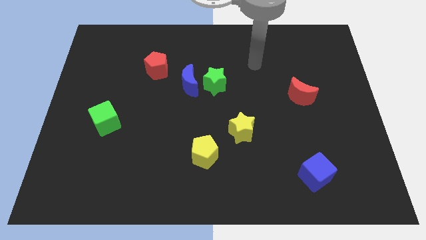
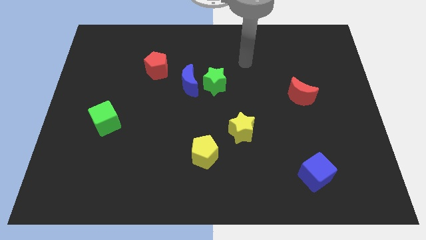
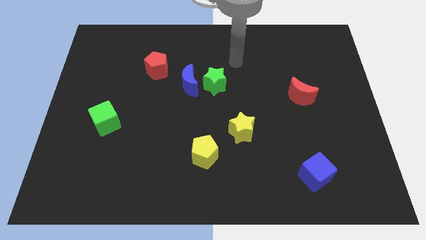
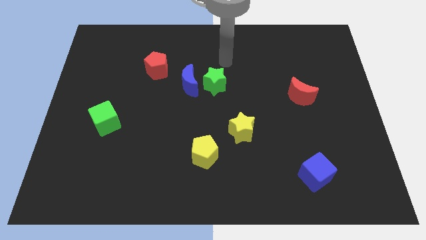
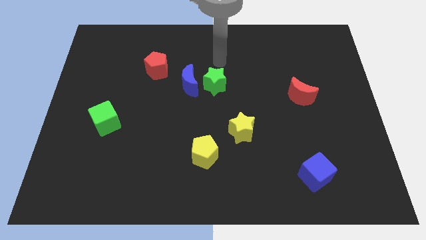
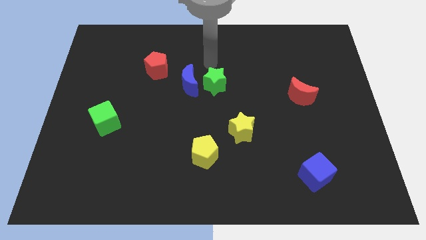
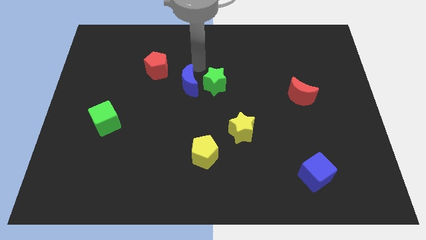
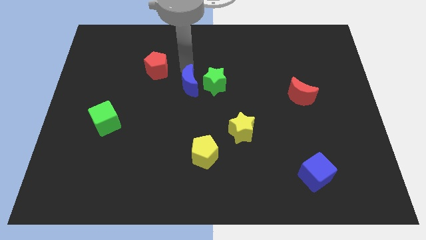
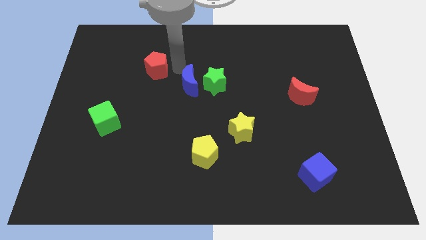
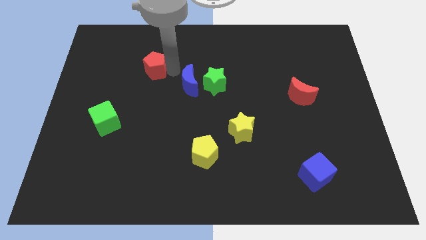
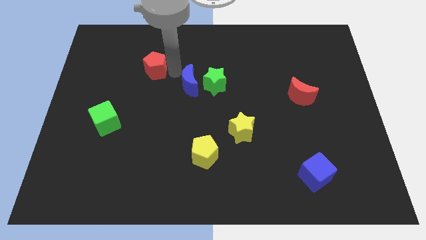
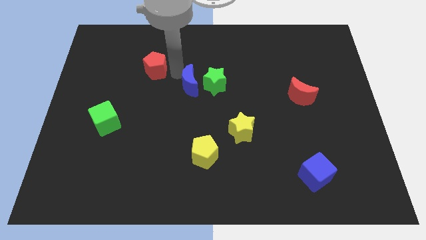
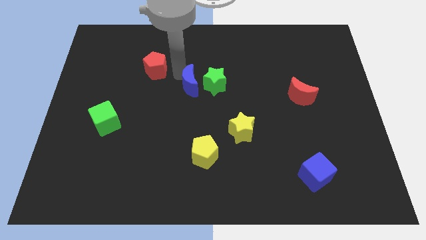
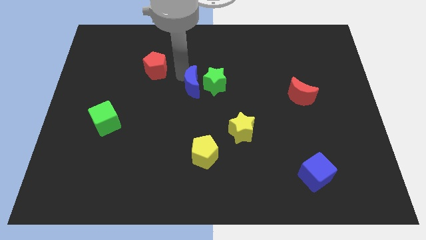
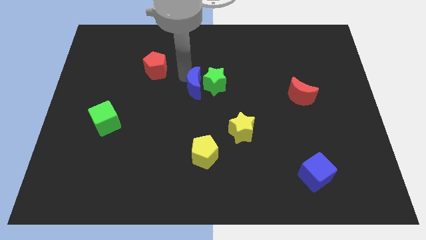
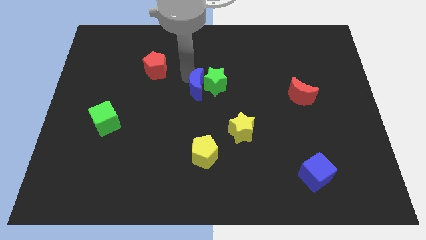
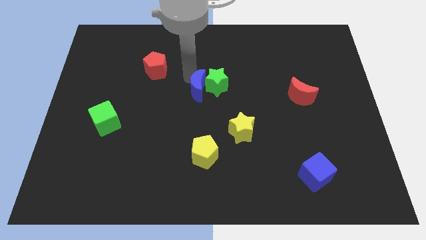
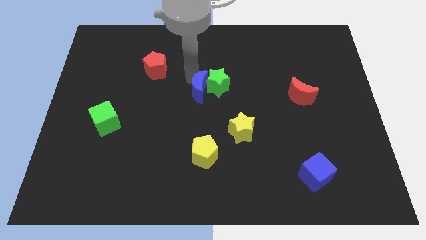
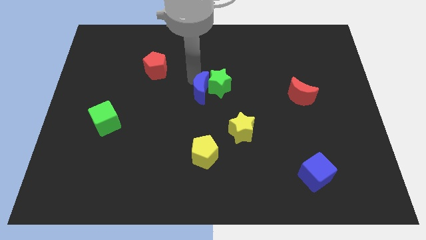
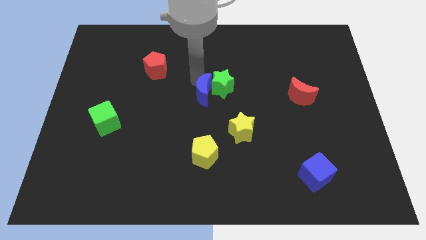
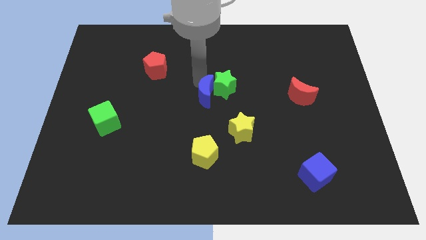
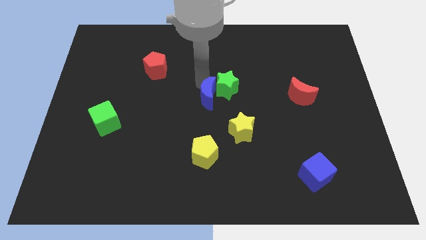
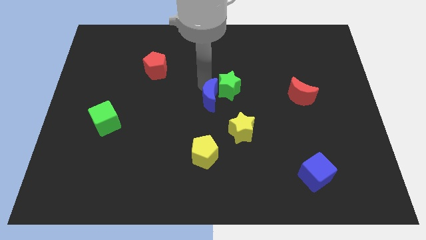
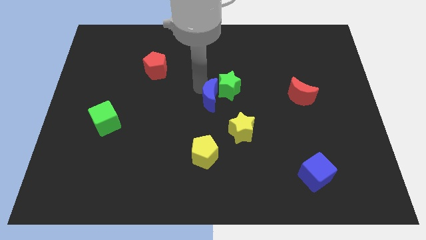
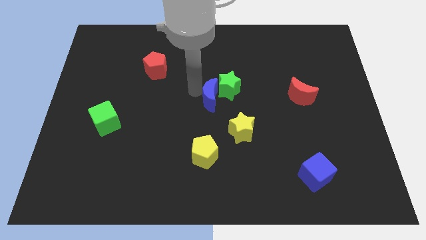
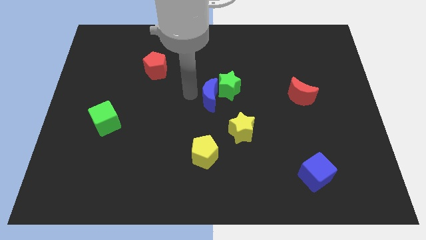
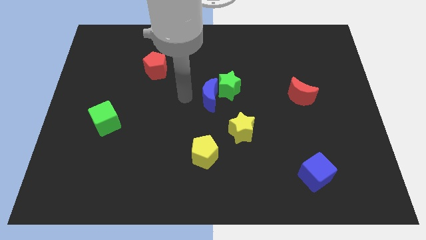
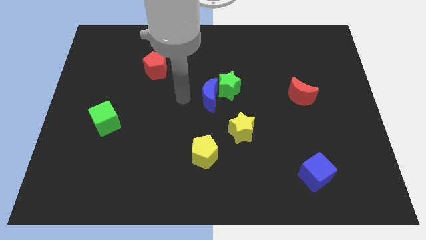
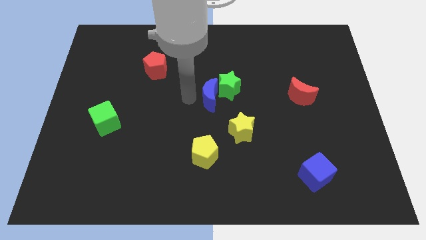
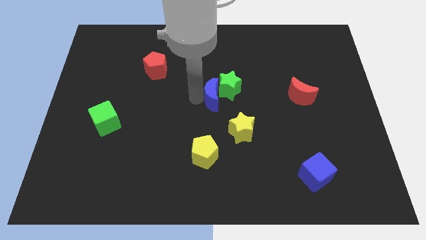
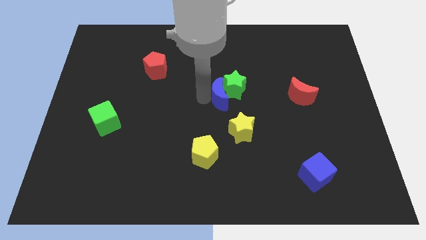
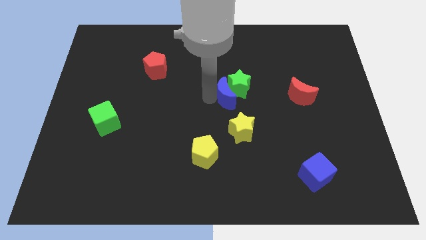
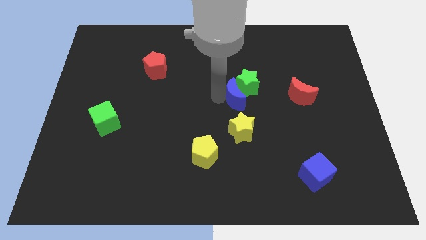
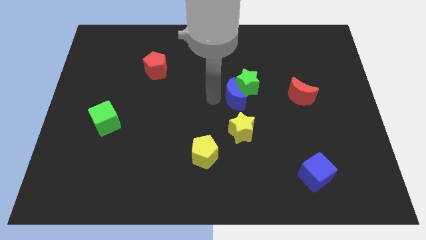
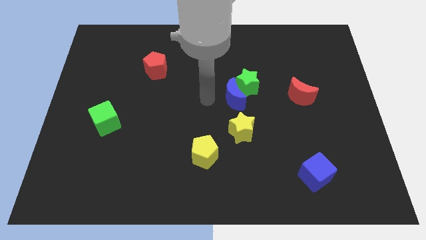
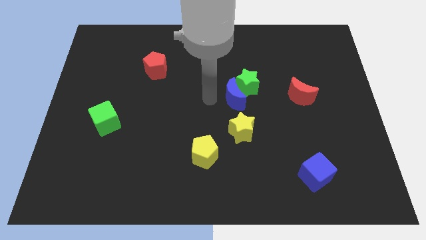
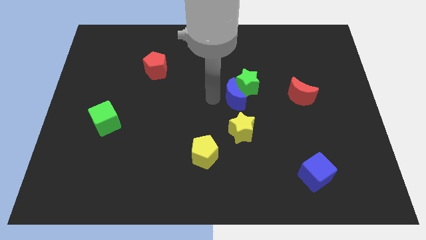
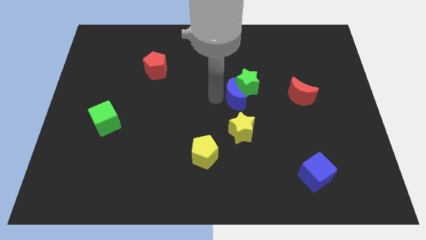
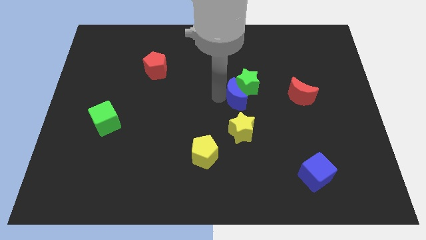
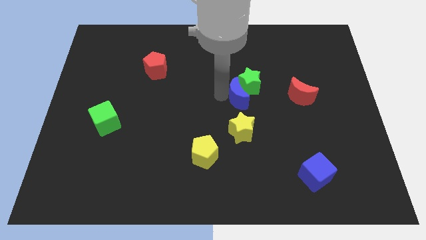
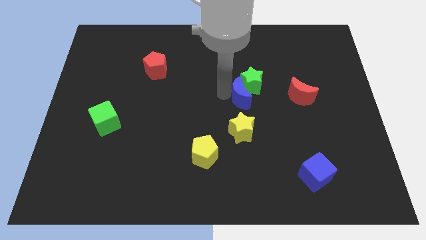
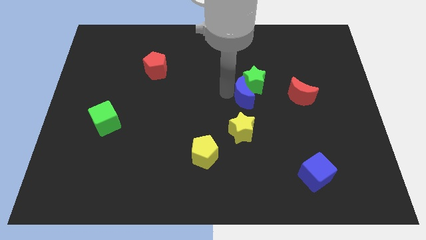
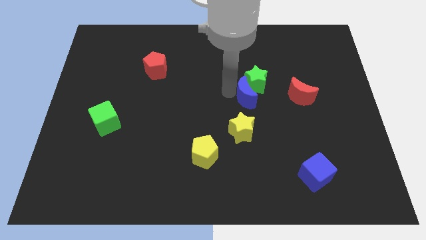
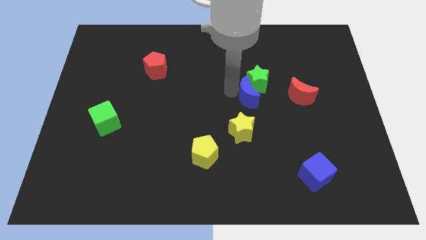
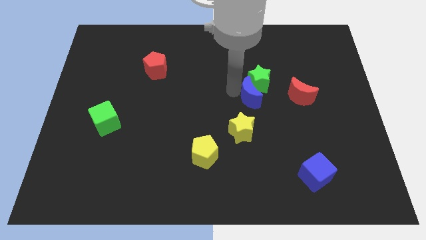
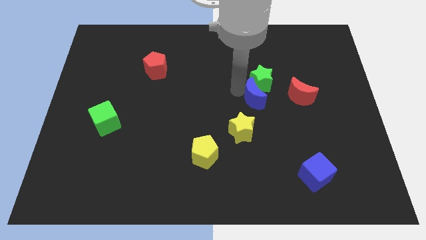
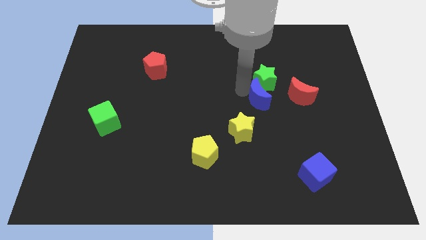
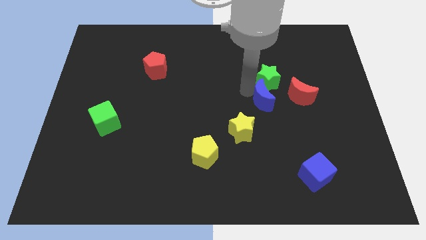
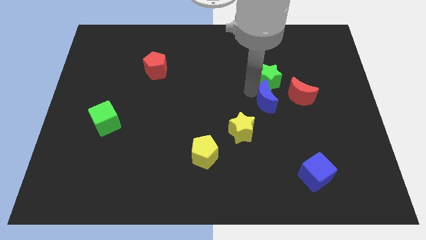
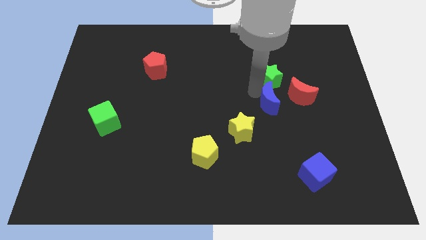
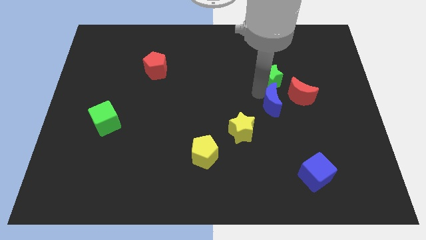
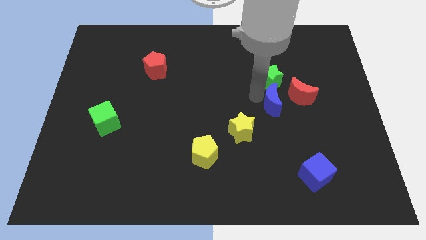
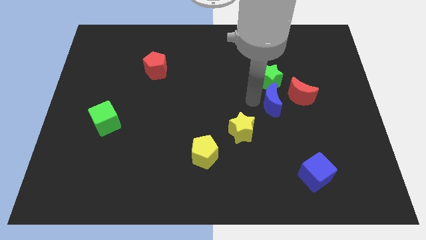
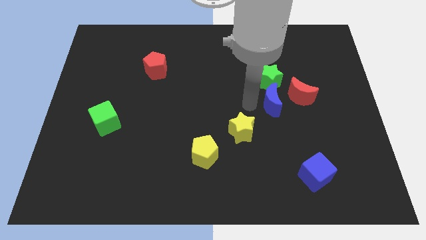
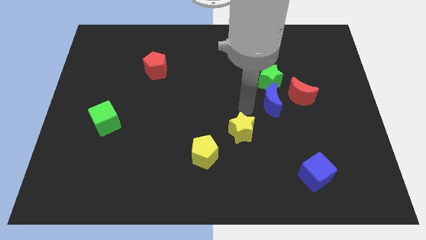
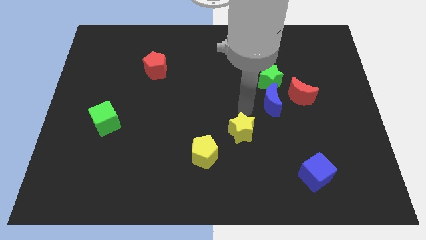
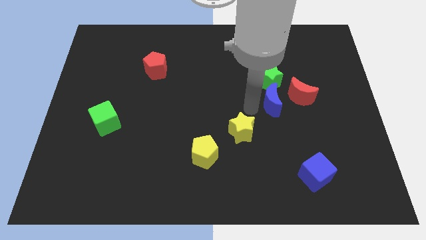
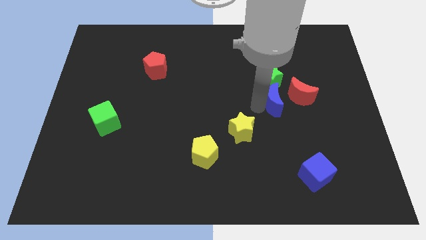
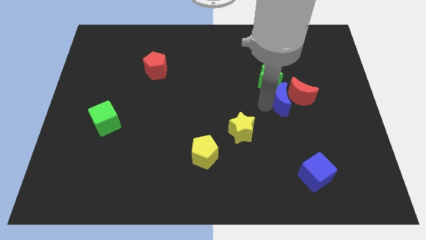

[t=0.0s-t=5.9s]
slide the blue moon close to the red moon

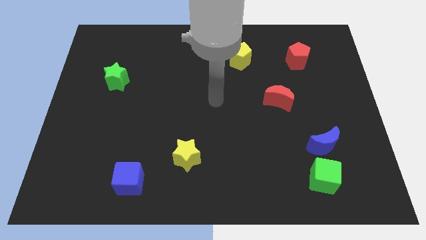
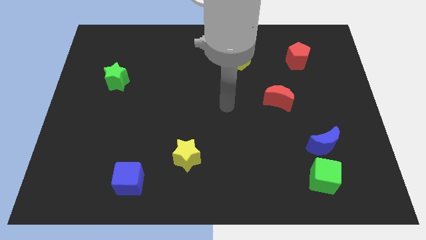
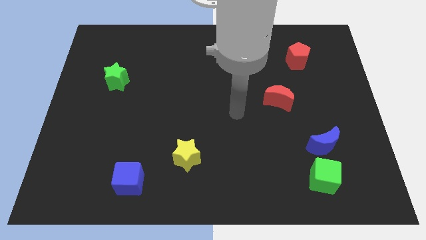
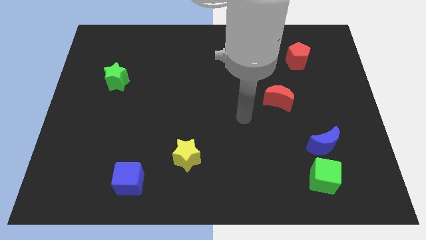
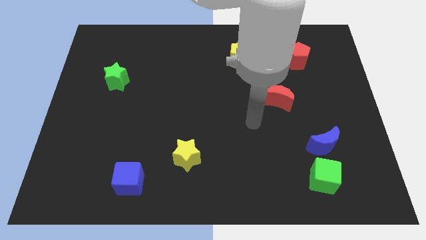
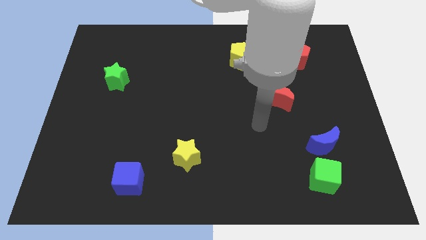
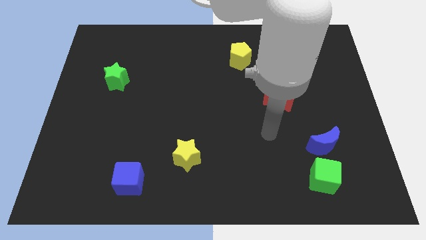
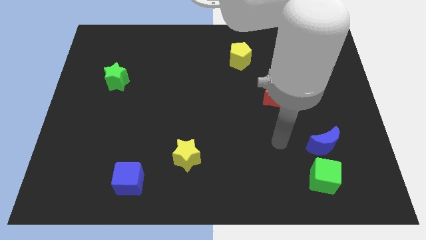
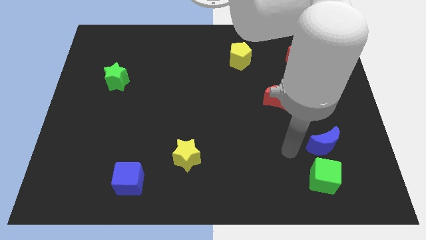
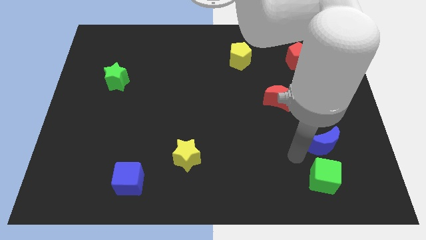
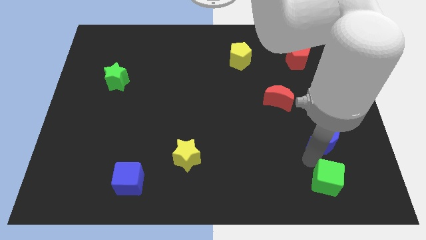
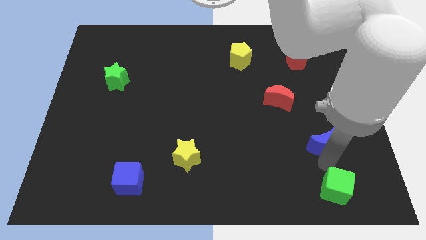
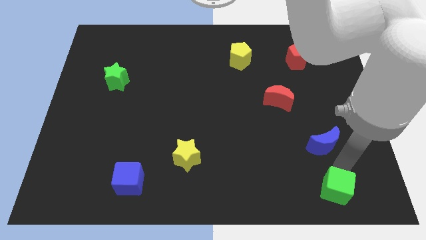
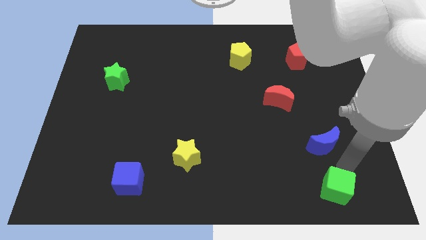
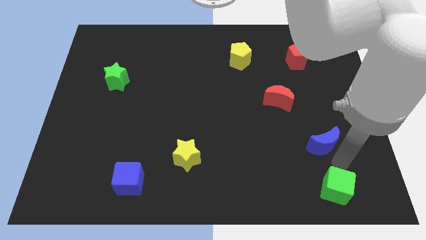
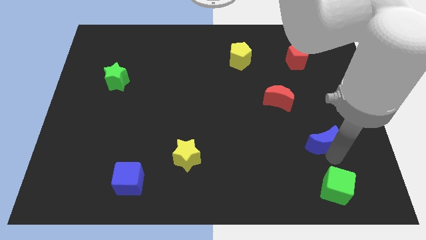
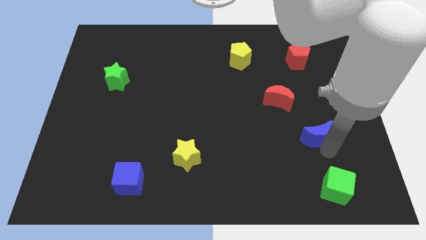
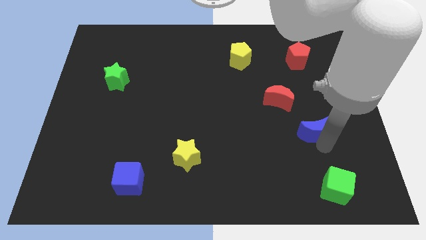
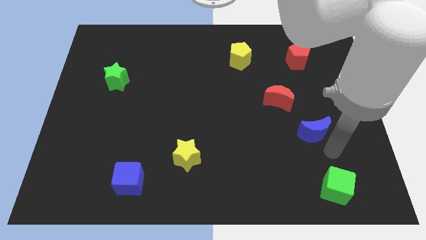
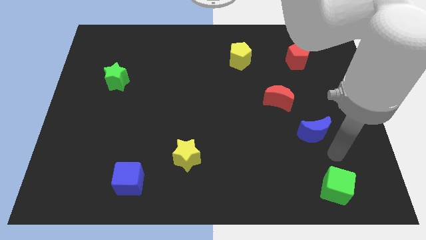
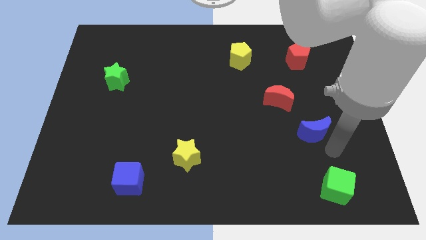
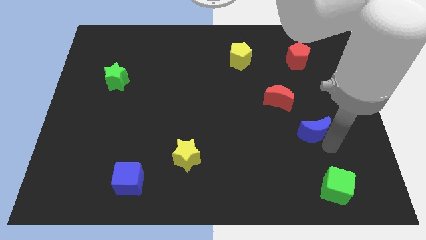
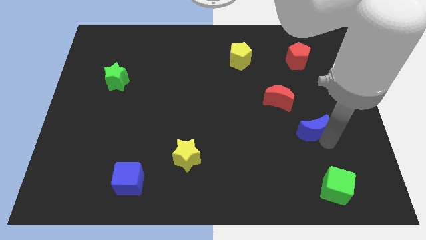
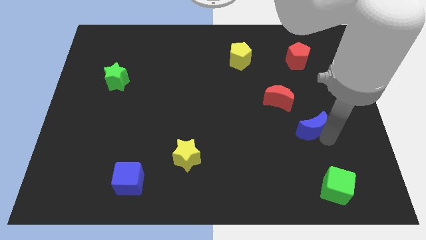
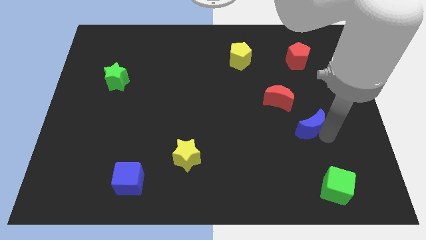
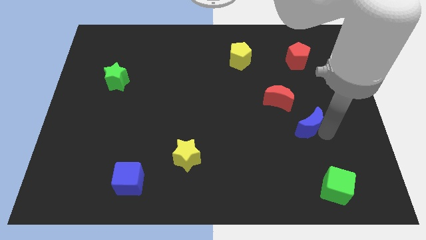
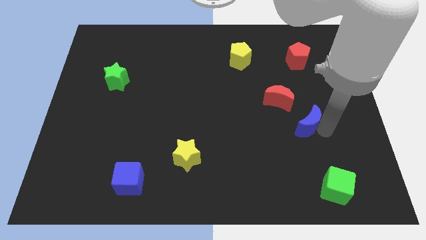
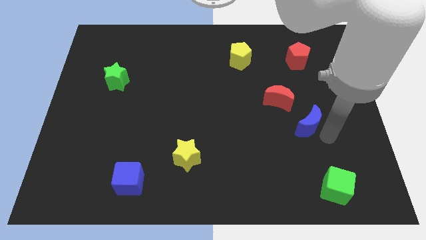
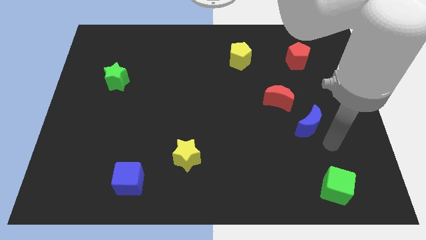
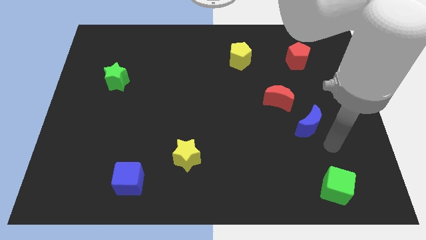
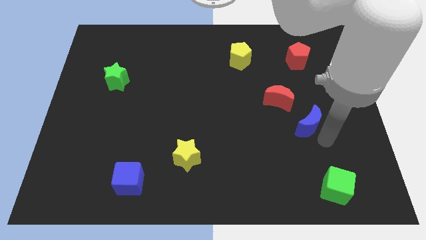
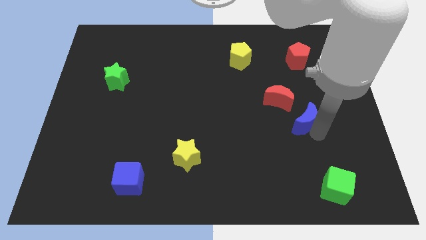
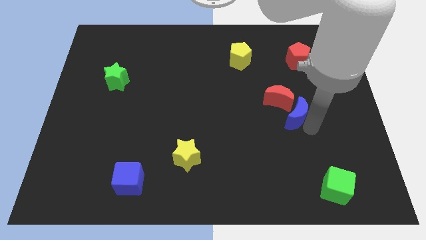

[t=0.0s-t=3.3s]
move the blue moon close to the red moon
